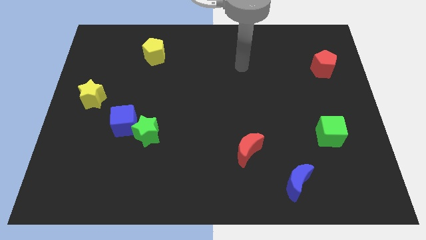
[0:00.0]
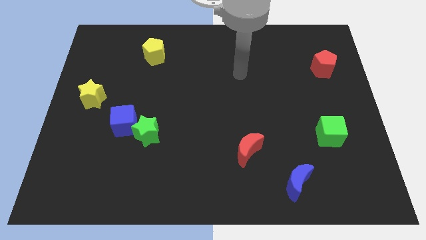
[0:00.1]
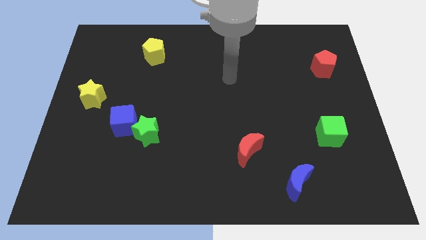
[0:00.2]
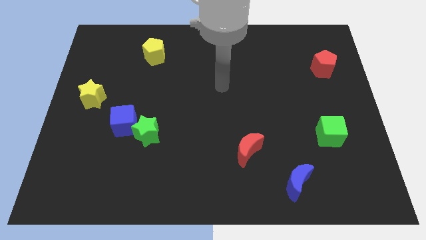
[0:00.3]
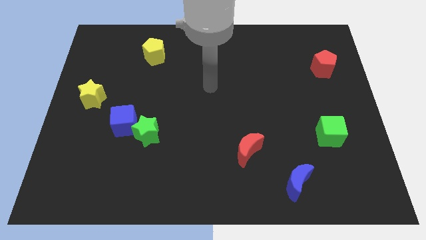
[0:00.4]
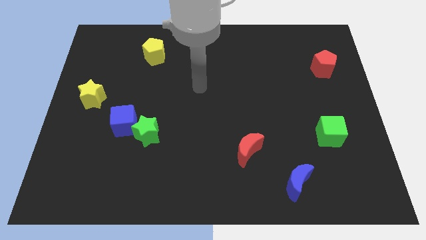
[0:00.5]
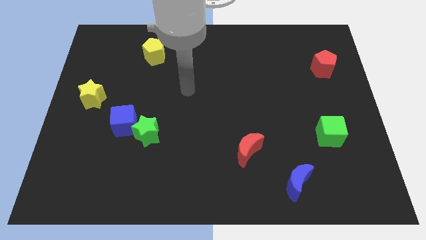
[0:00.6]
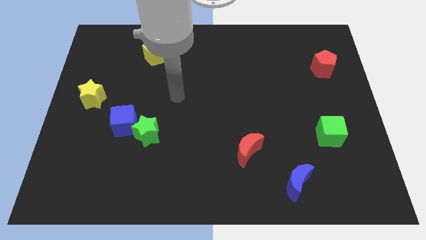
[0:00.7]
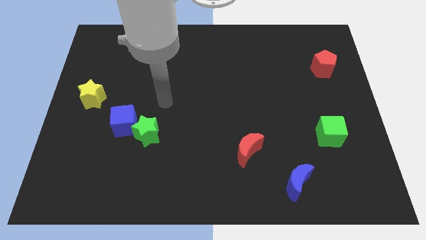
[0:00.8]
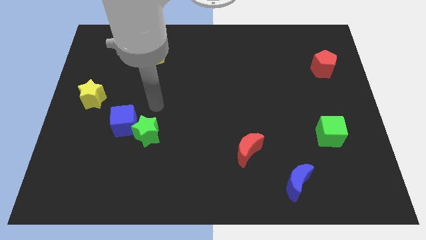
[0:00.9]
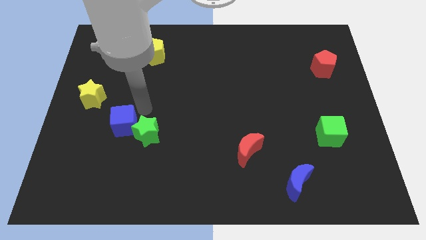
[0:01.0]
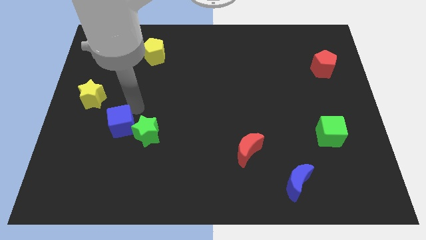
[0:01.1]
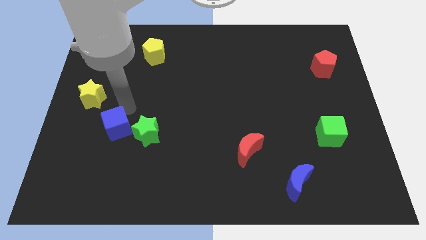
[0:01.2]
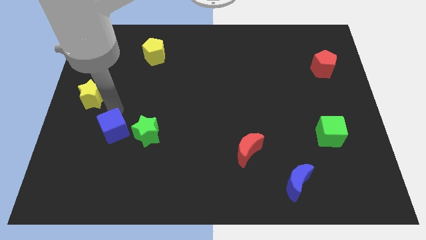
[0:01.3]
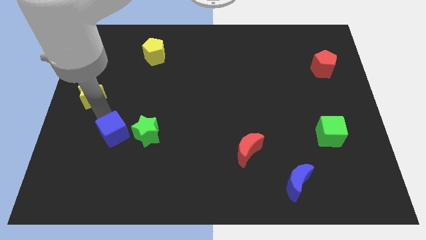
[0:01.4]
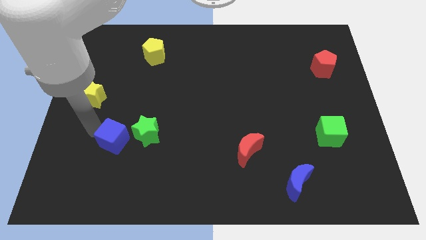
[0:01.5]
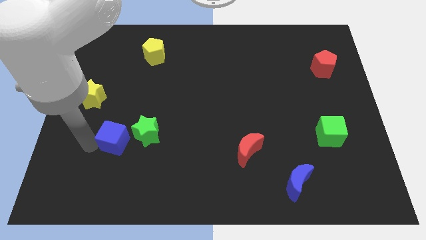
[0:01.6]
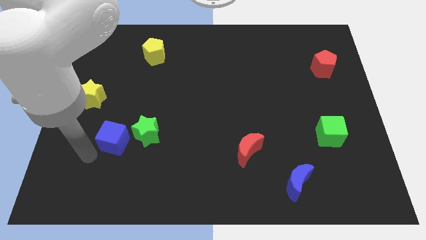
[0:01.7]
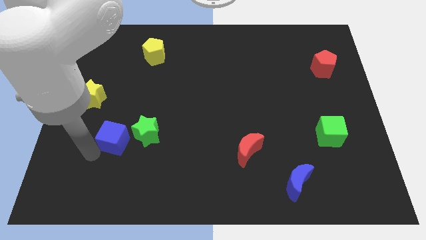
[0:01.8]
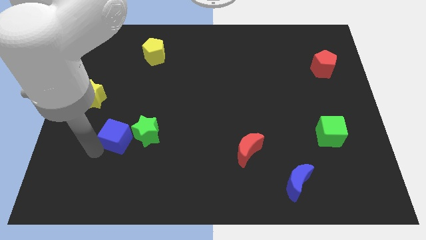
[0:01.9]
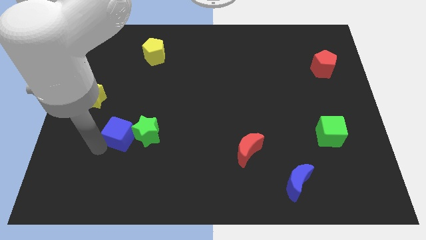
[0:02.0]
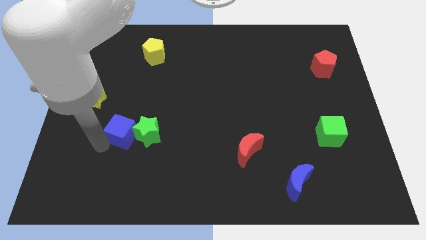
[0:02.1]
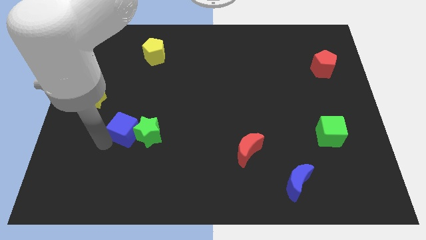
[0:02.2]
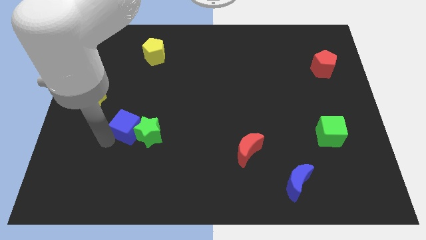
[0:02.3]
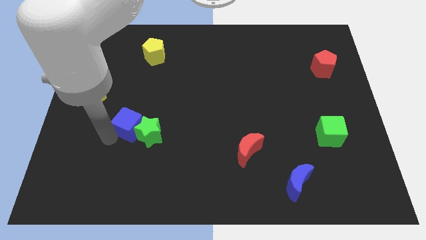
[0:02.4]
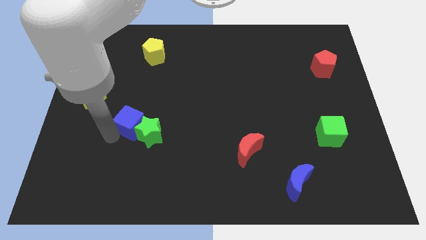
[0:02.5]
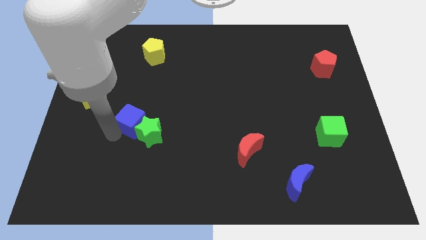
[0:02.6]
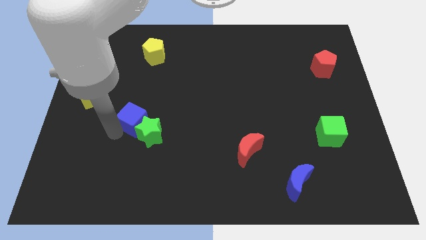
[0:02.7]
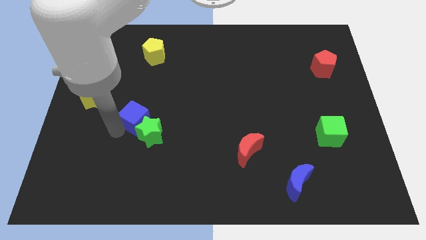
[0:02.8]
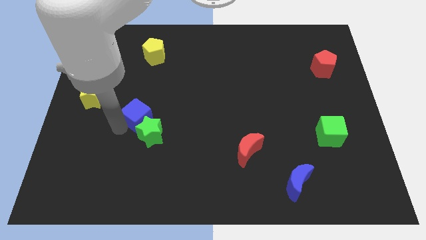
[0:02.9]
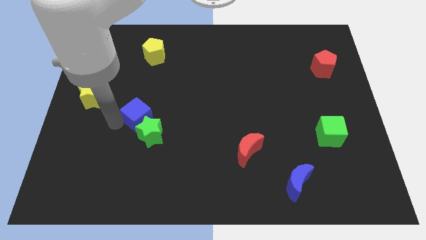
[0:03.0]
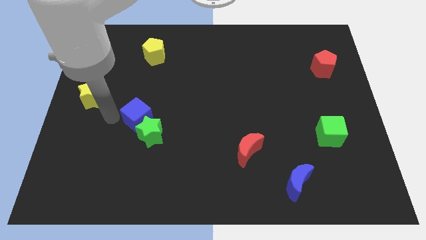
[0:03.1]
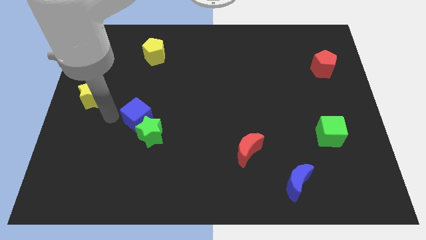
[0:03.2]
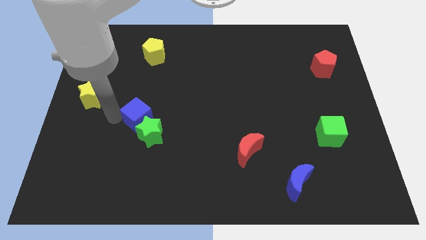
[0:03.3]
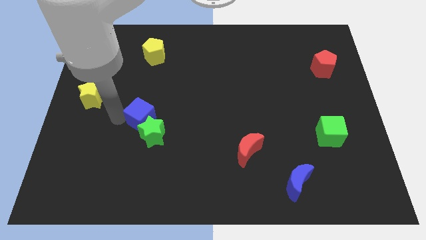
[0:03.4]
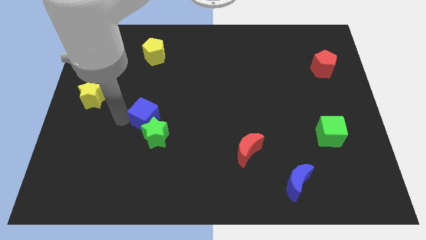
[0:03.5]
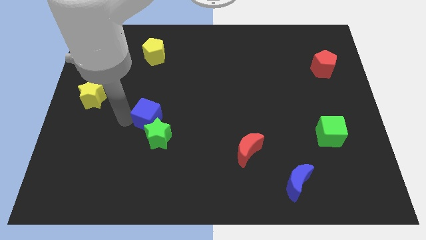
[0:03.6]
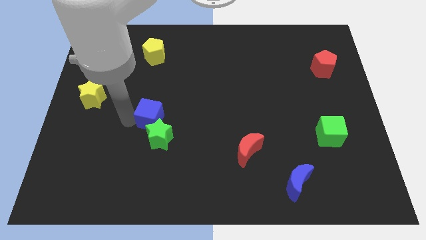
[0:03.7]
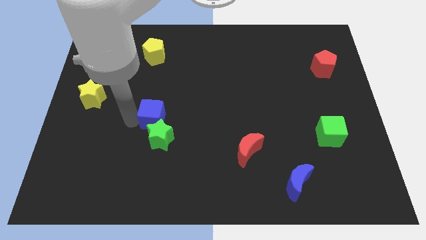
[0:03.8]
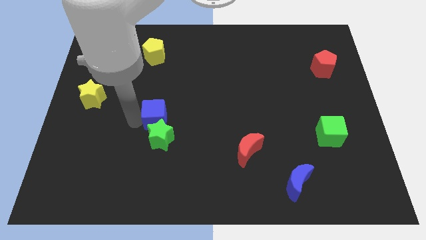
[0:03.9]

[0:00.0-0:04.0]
push the blue cube right a bit

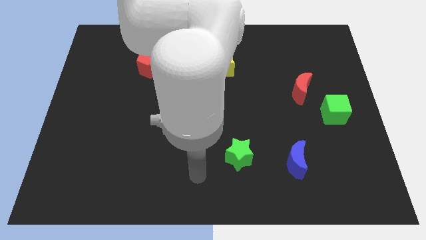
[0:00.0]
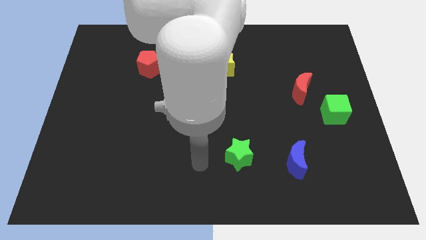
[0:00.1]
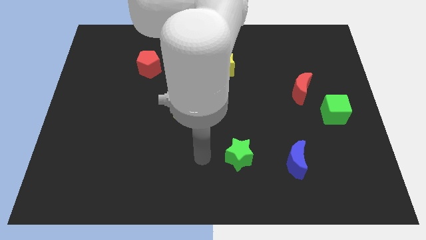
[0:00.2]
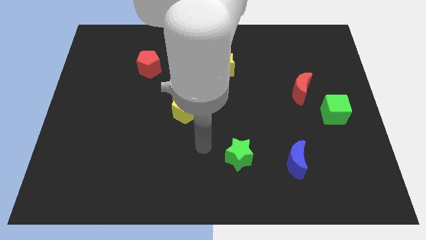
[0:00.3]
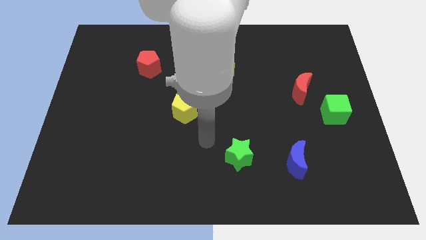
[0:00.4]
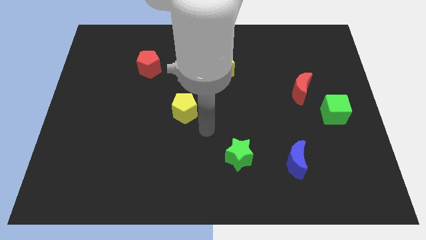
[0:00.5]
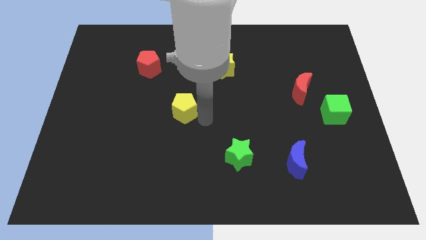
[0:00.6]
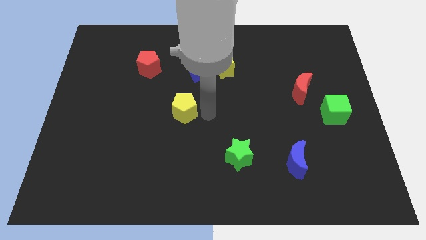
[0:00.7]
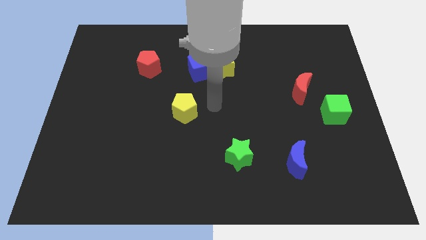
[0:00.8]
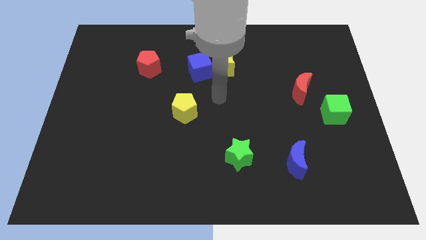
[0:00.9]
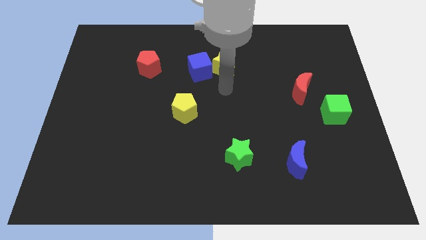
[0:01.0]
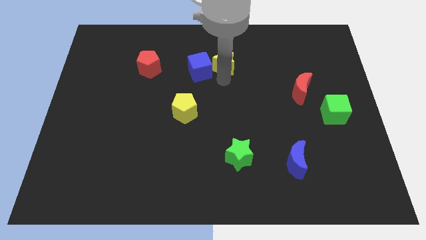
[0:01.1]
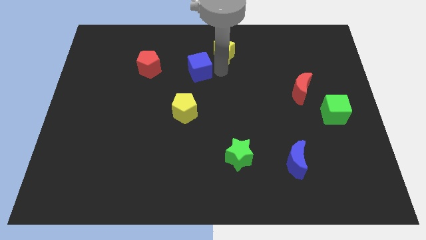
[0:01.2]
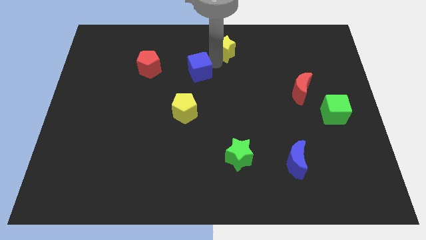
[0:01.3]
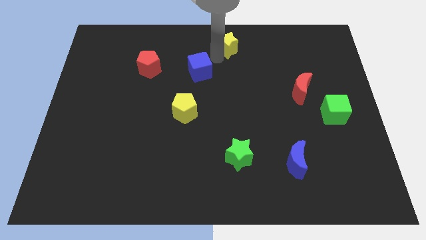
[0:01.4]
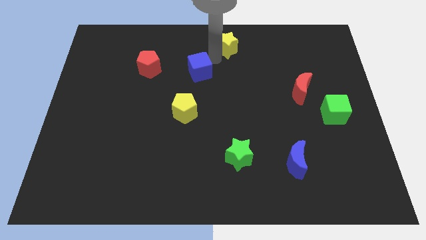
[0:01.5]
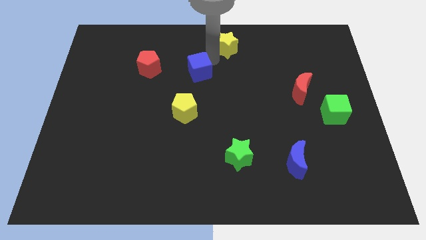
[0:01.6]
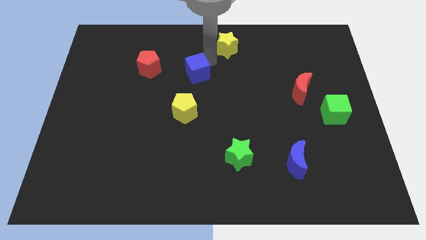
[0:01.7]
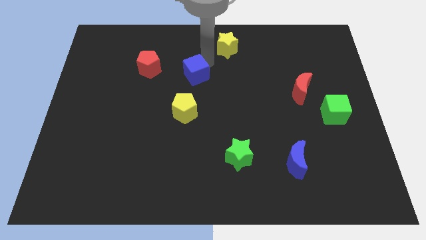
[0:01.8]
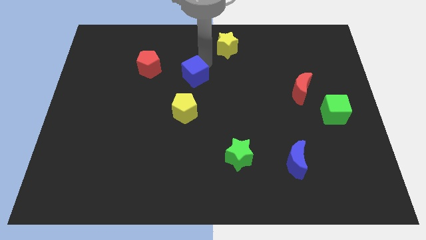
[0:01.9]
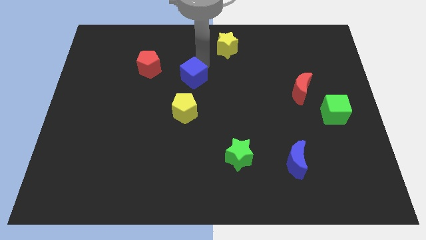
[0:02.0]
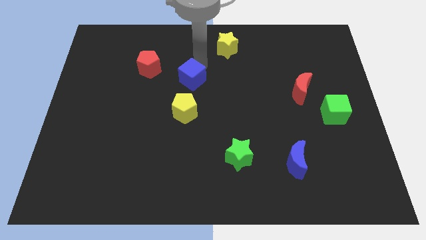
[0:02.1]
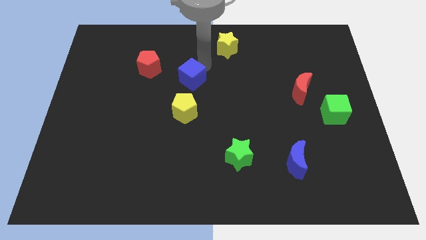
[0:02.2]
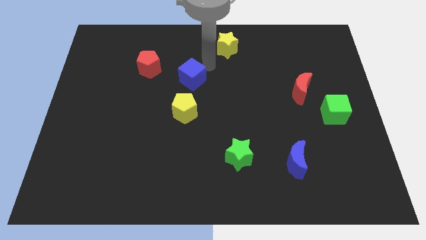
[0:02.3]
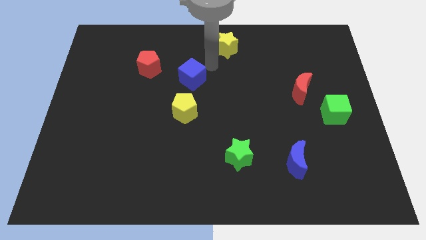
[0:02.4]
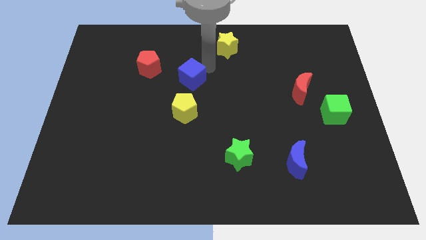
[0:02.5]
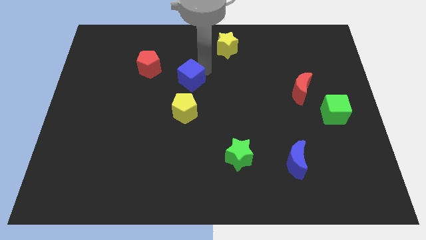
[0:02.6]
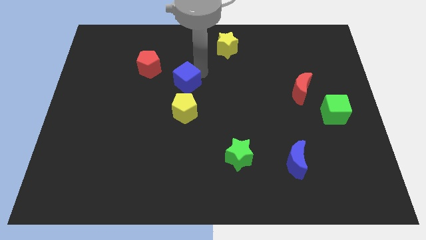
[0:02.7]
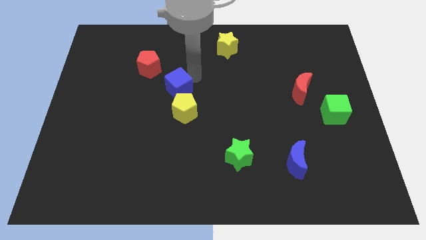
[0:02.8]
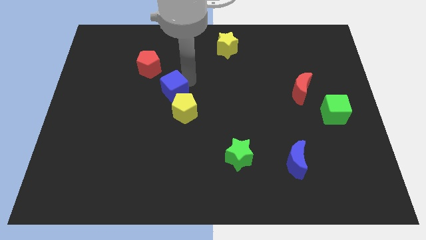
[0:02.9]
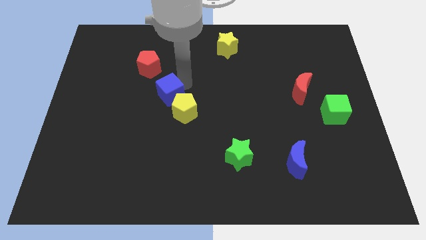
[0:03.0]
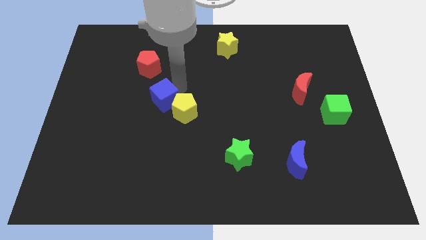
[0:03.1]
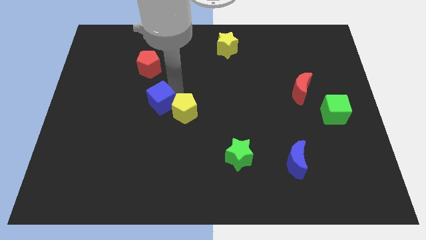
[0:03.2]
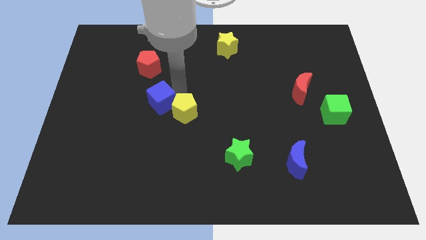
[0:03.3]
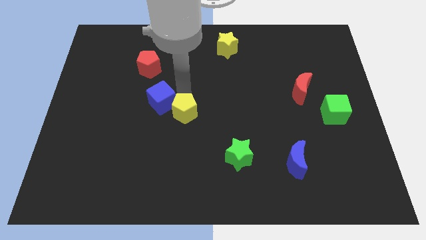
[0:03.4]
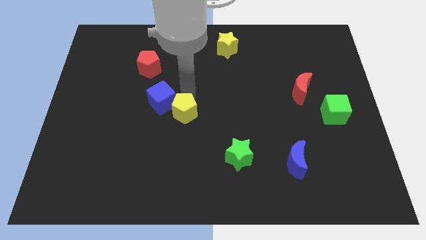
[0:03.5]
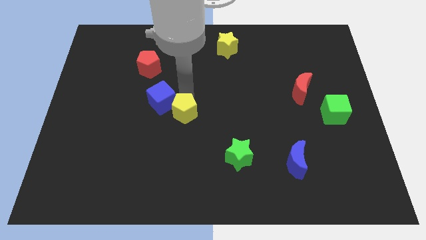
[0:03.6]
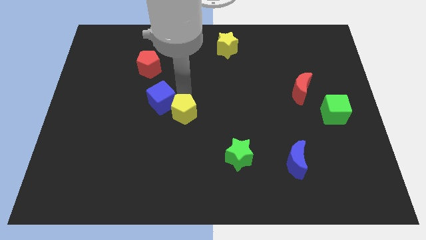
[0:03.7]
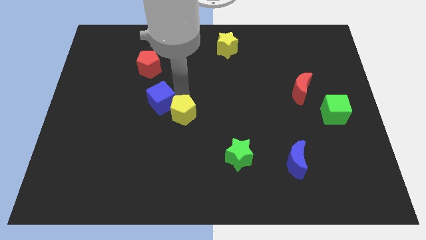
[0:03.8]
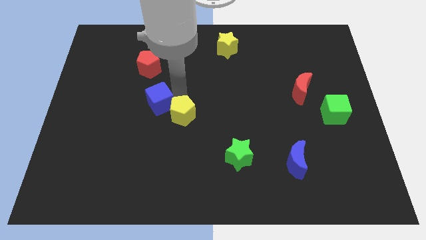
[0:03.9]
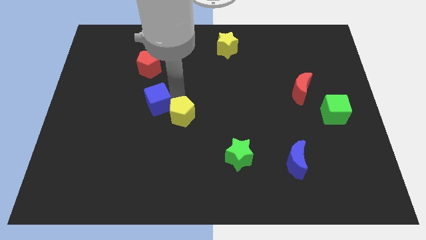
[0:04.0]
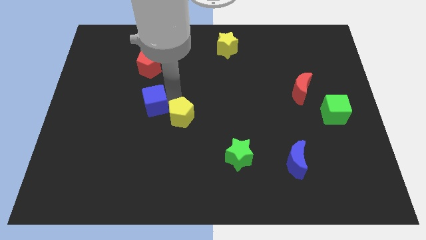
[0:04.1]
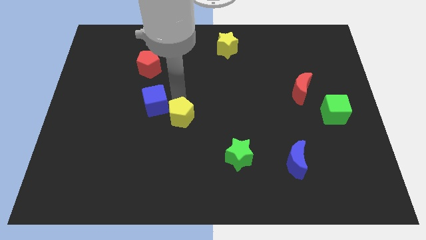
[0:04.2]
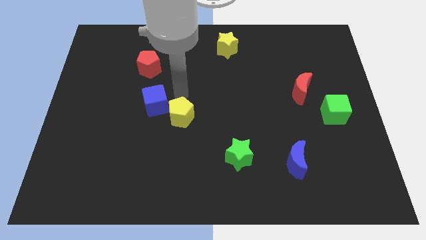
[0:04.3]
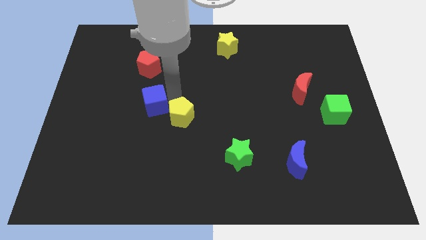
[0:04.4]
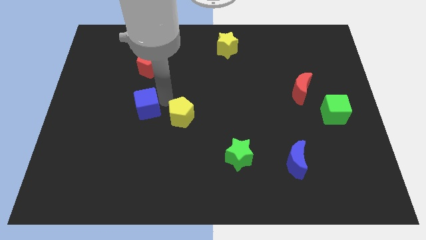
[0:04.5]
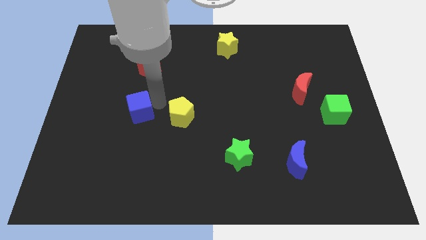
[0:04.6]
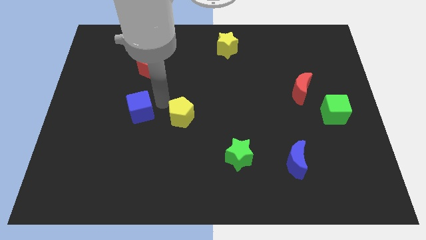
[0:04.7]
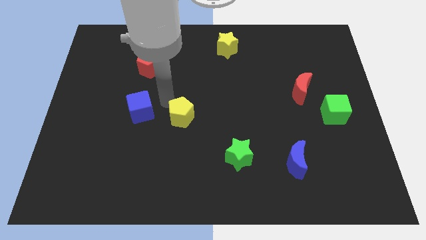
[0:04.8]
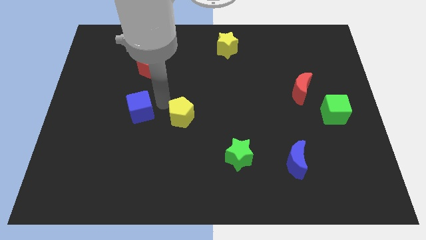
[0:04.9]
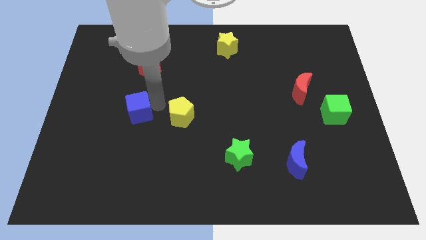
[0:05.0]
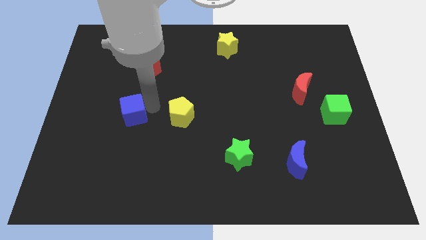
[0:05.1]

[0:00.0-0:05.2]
move the blue cube diagonally down and to the left
